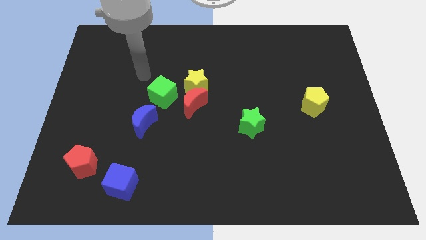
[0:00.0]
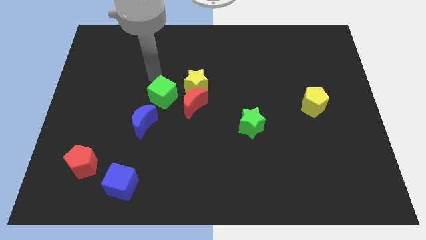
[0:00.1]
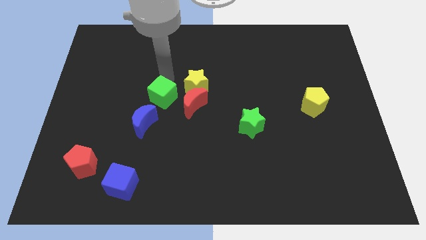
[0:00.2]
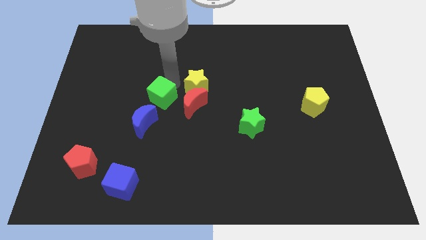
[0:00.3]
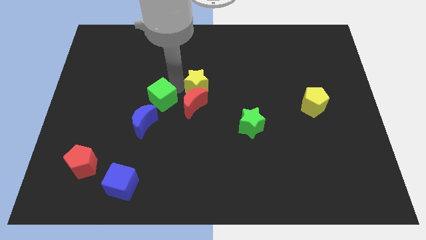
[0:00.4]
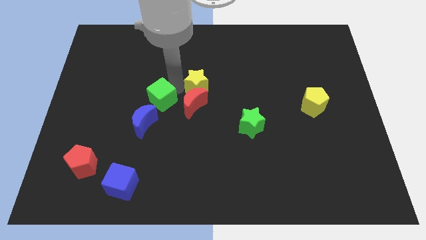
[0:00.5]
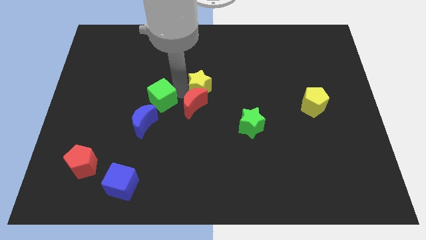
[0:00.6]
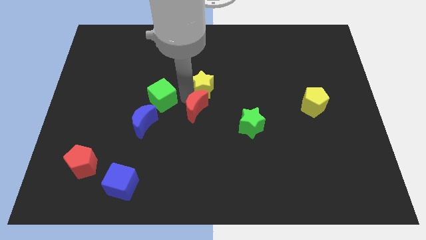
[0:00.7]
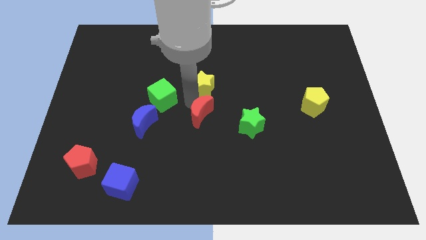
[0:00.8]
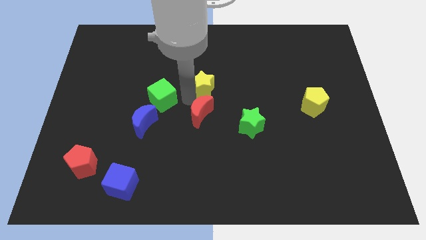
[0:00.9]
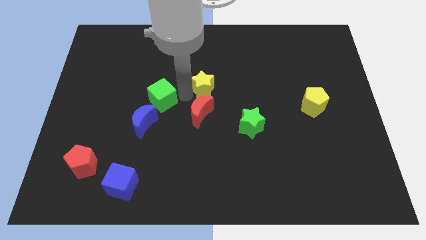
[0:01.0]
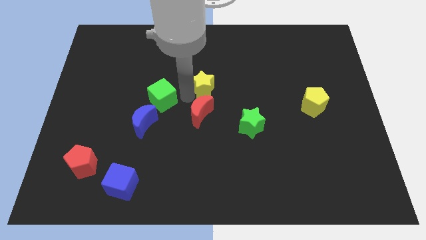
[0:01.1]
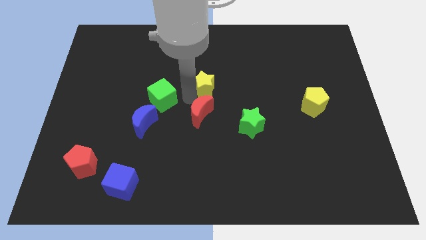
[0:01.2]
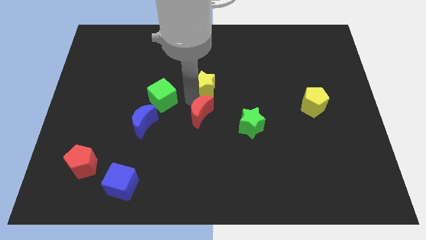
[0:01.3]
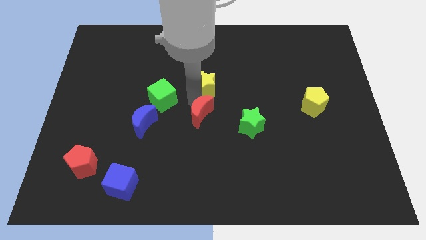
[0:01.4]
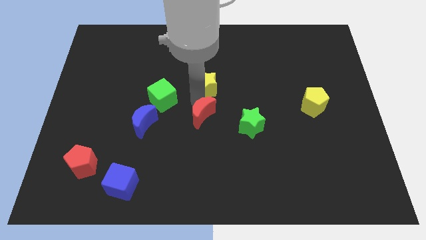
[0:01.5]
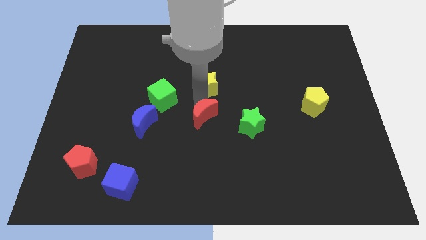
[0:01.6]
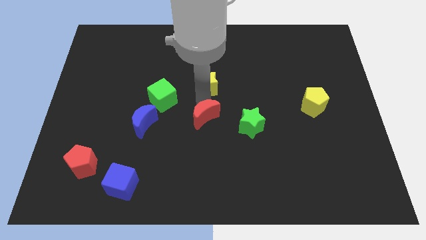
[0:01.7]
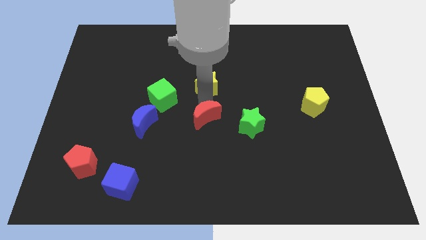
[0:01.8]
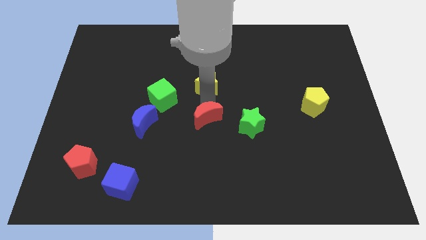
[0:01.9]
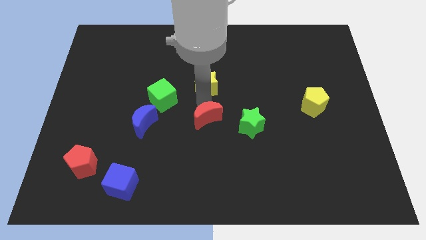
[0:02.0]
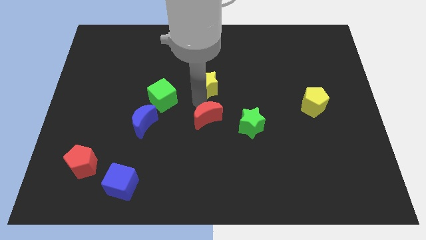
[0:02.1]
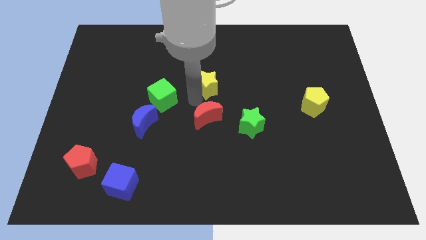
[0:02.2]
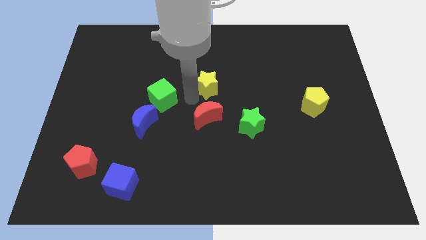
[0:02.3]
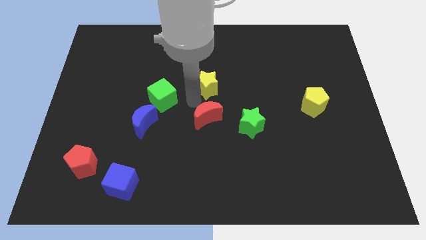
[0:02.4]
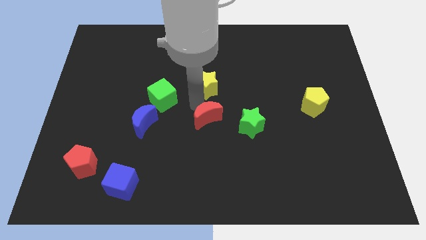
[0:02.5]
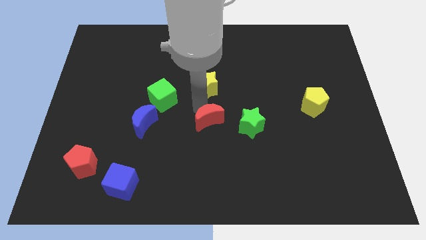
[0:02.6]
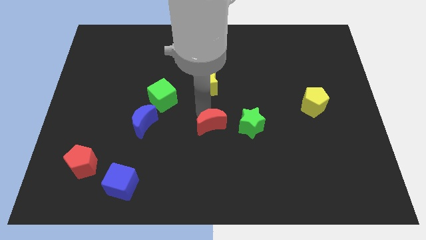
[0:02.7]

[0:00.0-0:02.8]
separate the red moon from the yellow star and green cube

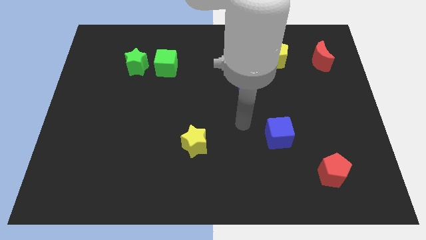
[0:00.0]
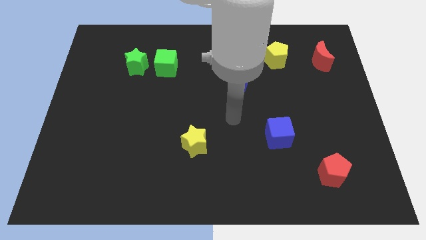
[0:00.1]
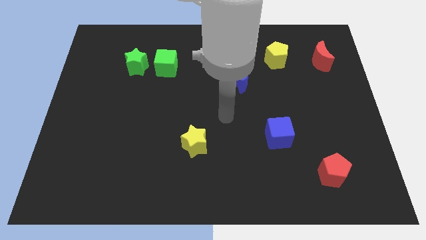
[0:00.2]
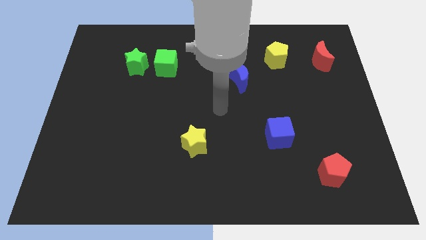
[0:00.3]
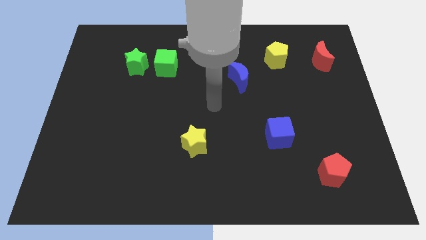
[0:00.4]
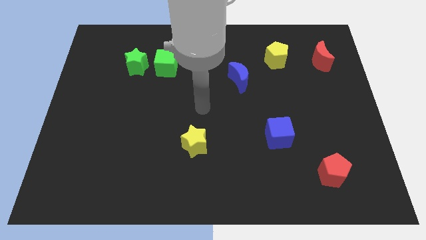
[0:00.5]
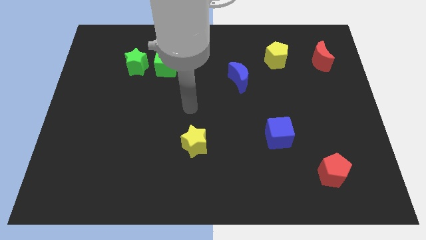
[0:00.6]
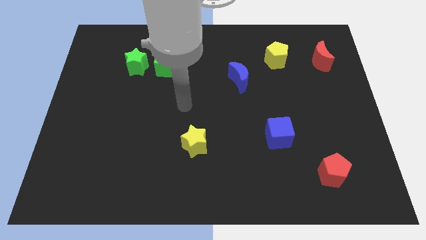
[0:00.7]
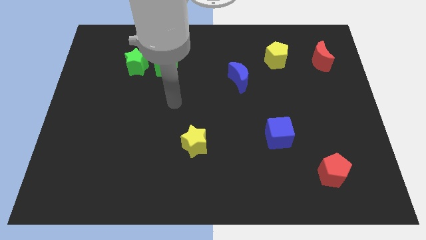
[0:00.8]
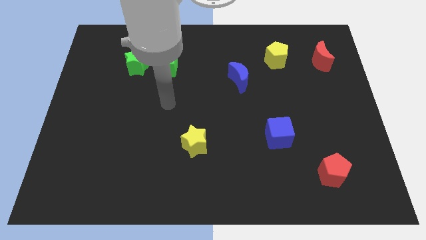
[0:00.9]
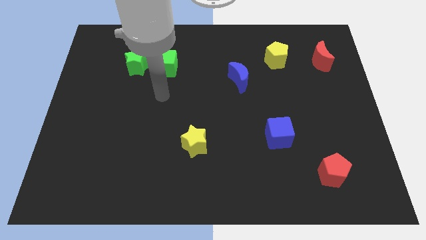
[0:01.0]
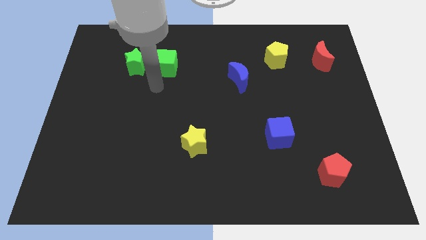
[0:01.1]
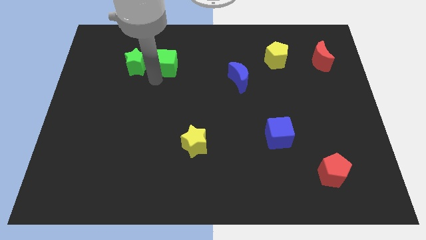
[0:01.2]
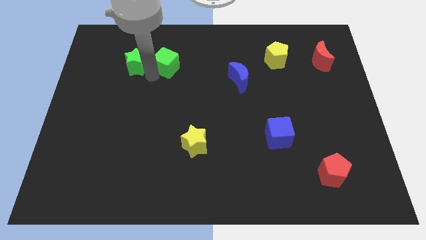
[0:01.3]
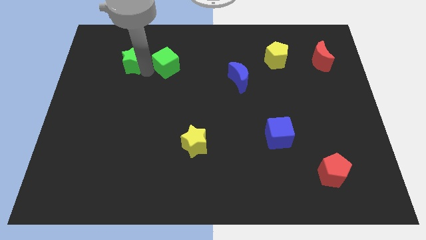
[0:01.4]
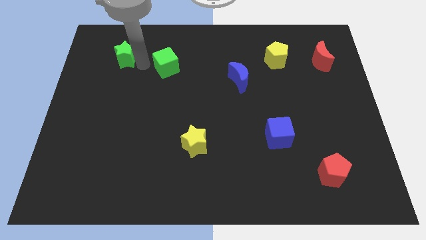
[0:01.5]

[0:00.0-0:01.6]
move the green cube away from the green star

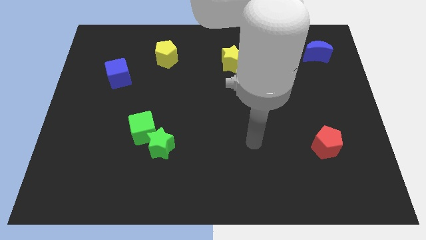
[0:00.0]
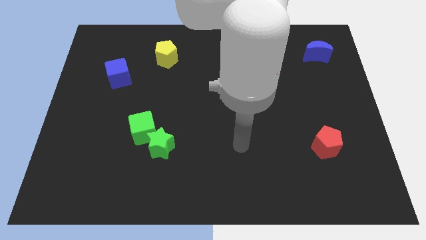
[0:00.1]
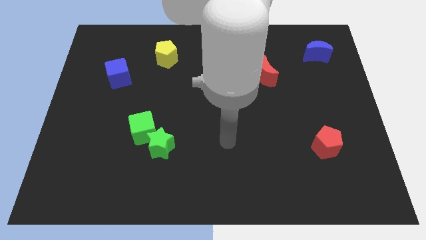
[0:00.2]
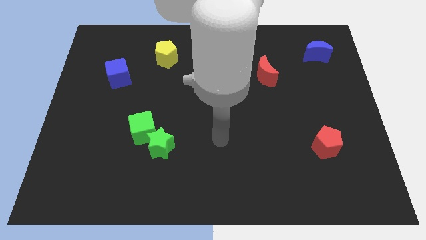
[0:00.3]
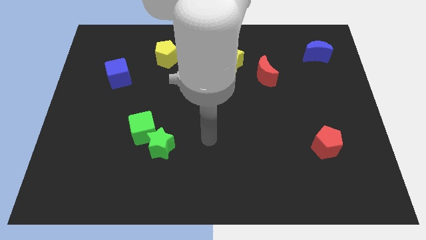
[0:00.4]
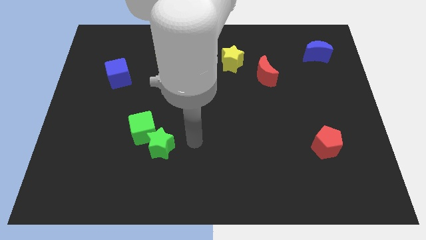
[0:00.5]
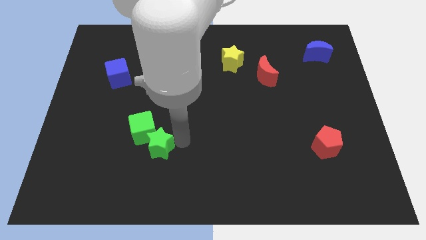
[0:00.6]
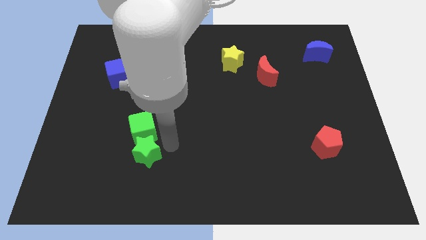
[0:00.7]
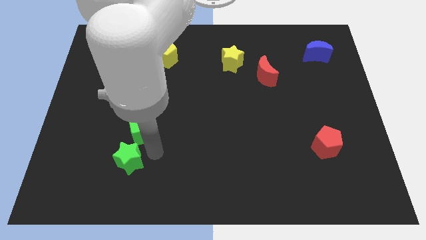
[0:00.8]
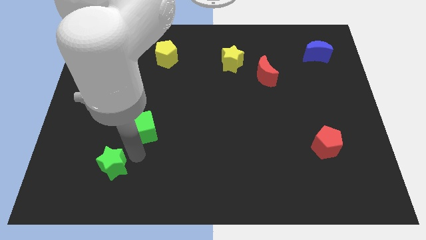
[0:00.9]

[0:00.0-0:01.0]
pull the green cube apart from the green star

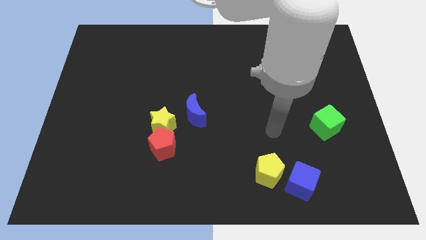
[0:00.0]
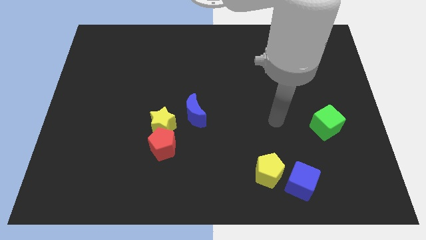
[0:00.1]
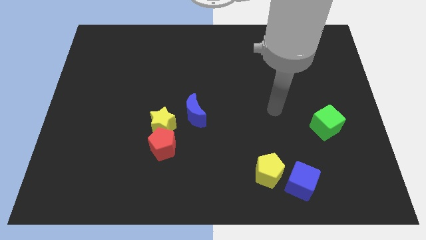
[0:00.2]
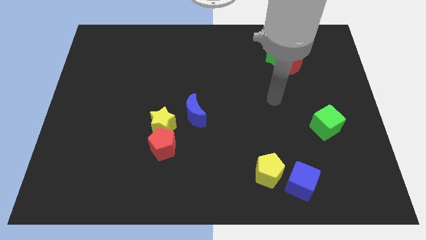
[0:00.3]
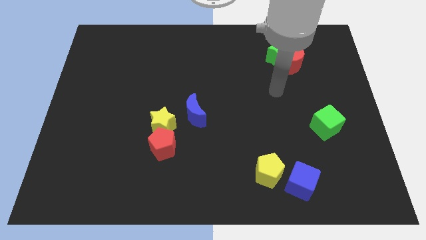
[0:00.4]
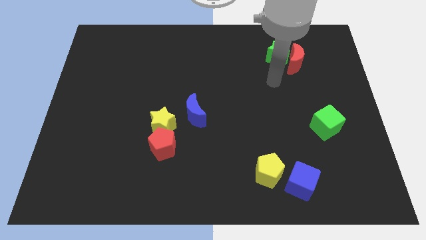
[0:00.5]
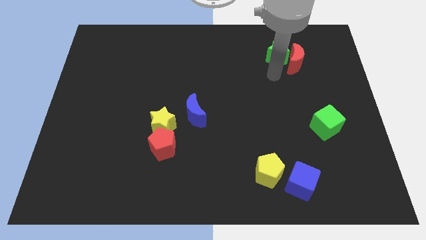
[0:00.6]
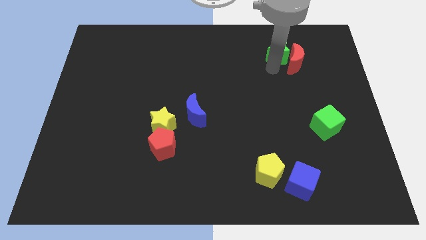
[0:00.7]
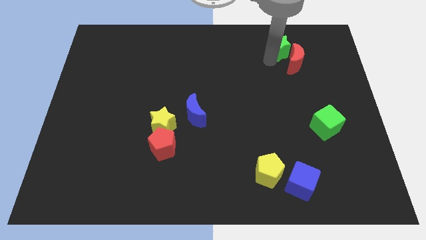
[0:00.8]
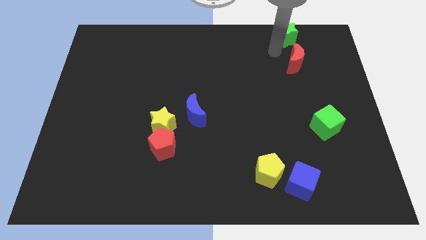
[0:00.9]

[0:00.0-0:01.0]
move the red moon away from the green star

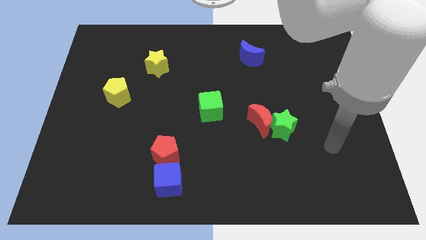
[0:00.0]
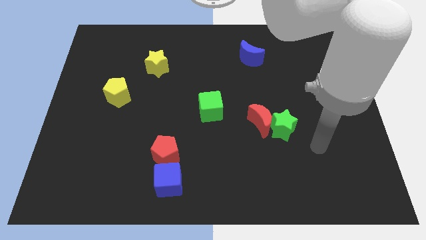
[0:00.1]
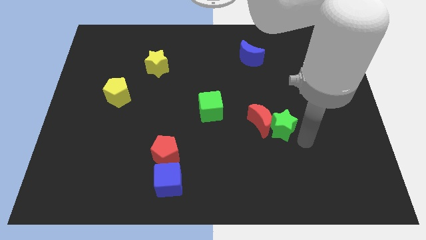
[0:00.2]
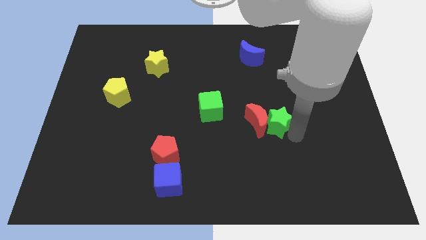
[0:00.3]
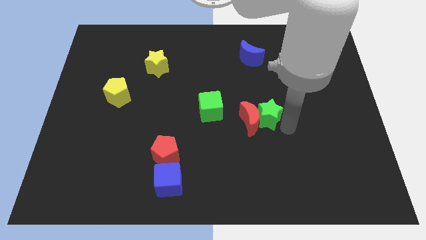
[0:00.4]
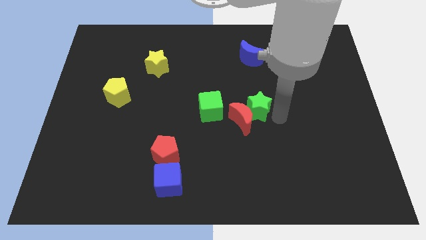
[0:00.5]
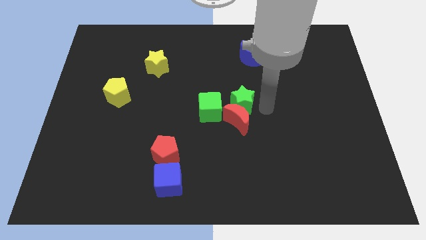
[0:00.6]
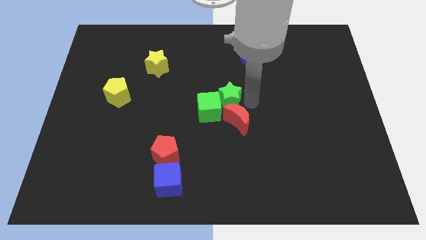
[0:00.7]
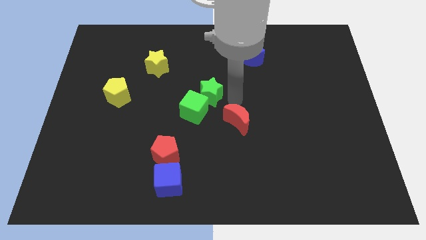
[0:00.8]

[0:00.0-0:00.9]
pull the red moon apart from the green star

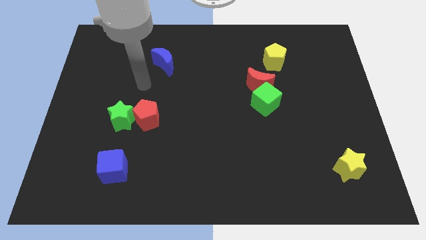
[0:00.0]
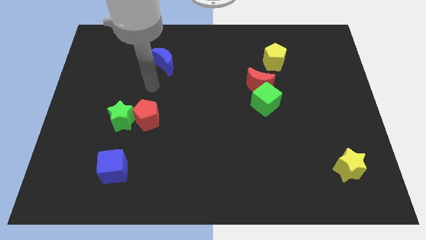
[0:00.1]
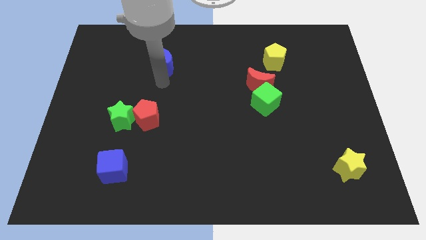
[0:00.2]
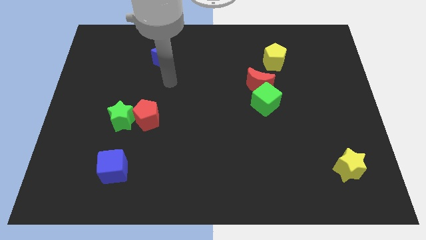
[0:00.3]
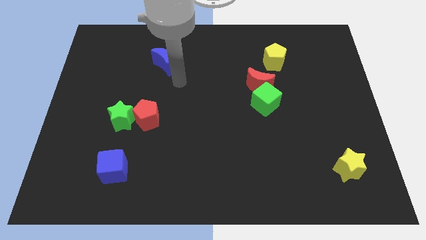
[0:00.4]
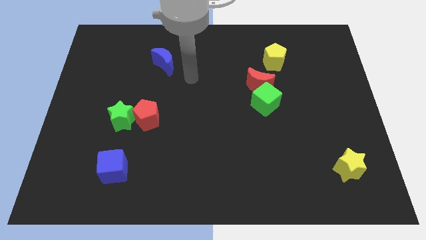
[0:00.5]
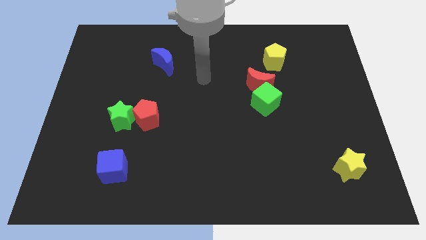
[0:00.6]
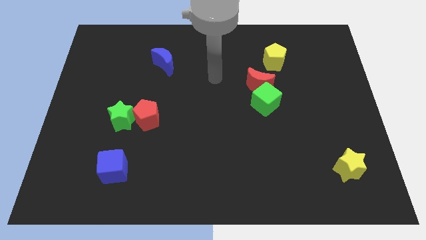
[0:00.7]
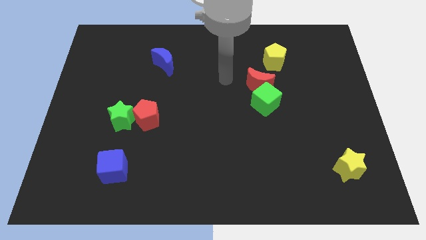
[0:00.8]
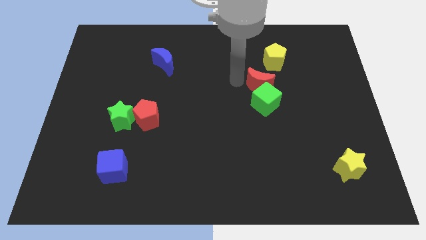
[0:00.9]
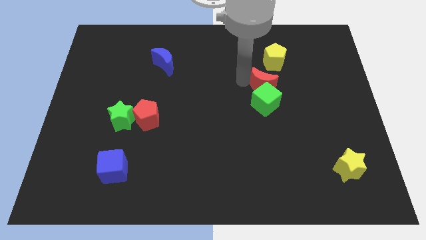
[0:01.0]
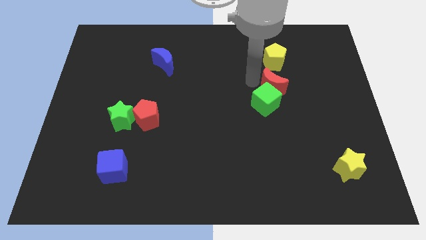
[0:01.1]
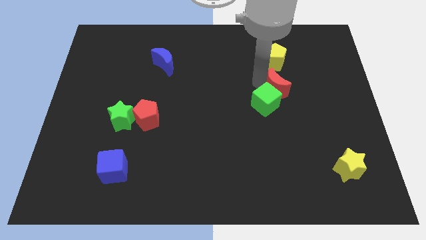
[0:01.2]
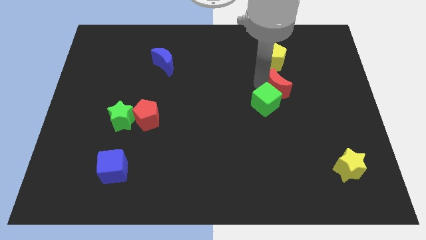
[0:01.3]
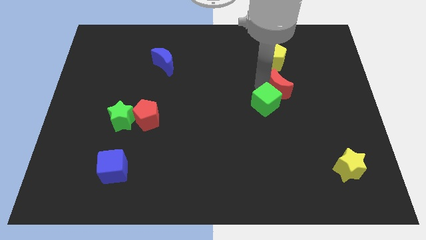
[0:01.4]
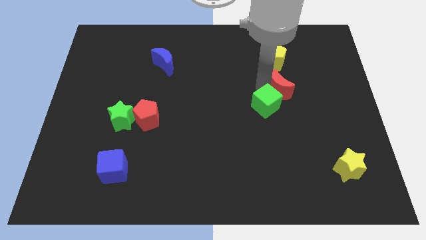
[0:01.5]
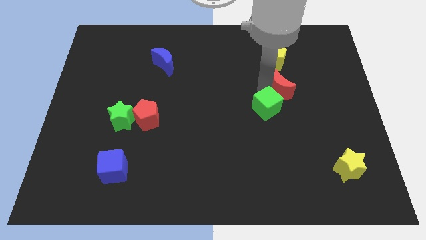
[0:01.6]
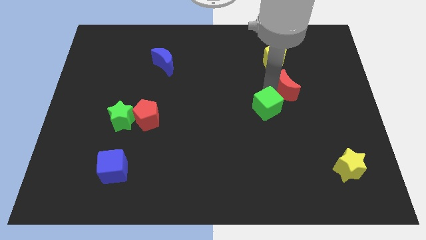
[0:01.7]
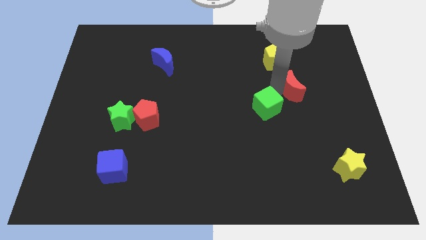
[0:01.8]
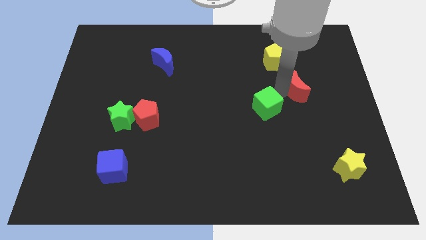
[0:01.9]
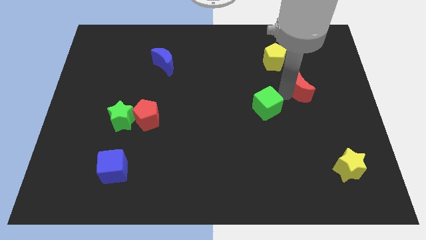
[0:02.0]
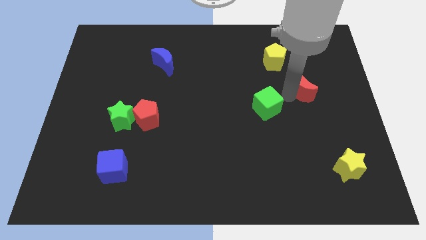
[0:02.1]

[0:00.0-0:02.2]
pull the green cube apart from the red moon
